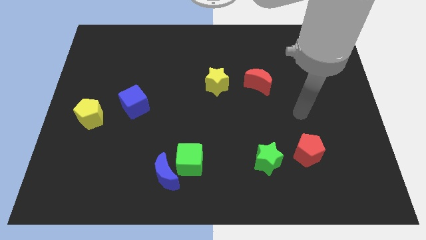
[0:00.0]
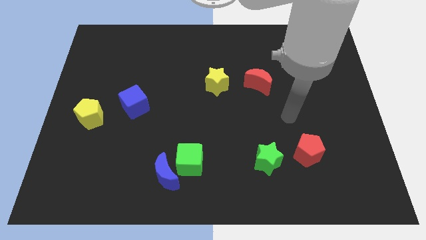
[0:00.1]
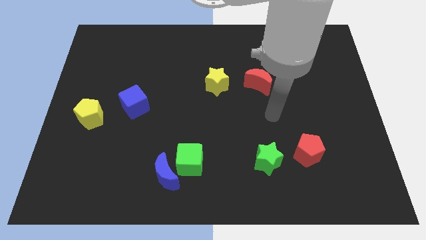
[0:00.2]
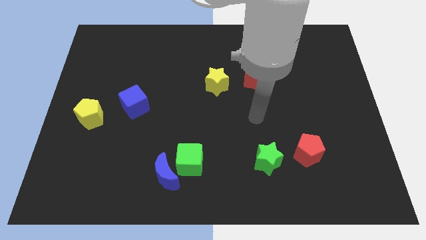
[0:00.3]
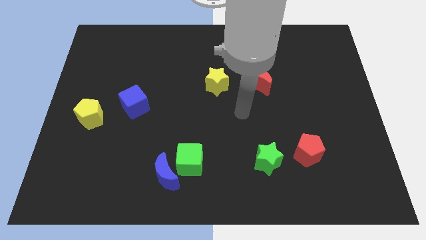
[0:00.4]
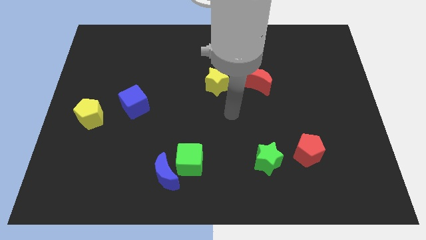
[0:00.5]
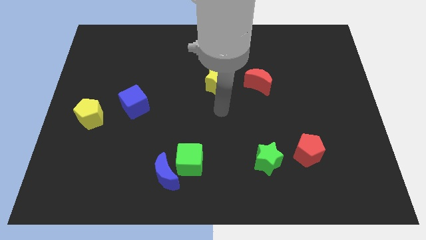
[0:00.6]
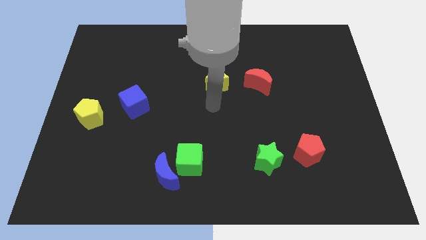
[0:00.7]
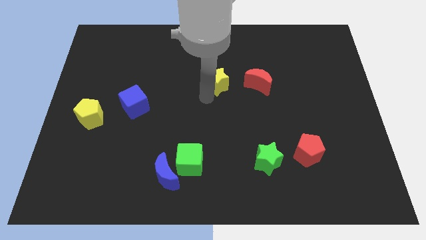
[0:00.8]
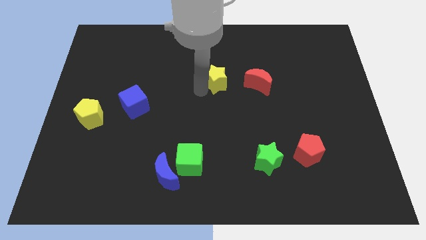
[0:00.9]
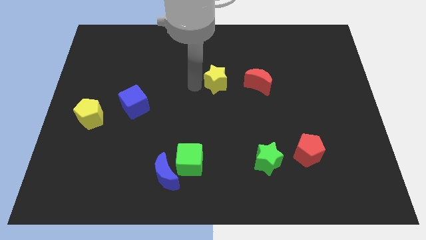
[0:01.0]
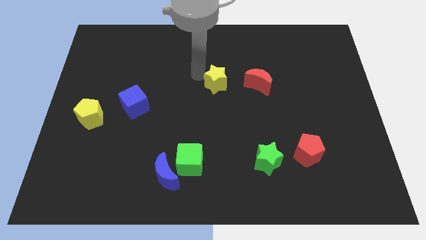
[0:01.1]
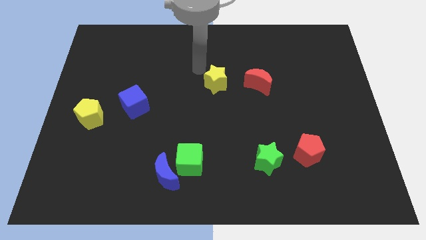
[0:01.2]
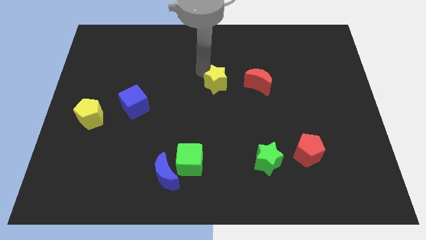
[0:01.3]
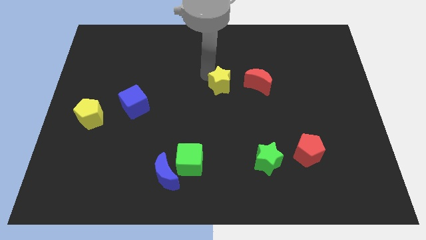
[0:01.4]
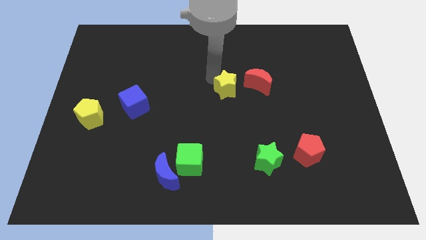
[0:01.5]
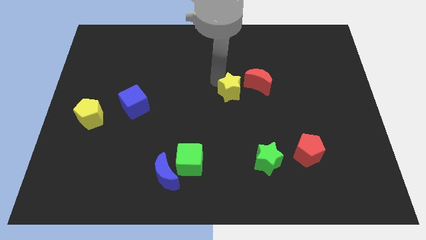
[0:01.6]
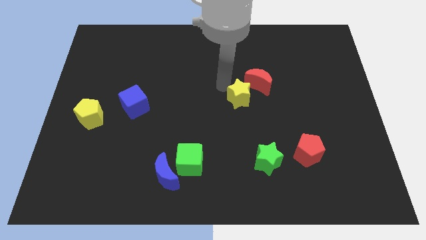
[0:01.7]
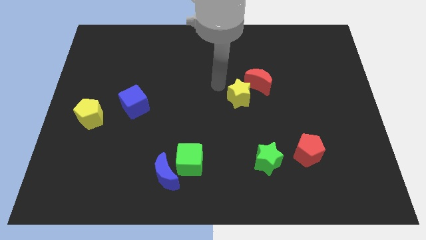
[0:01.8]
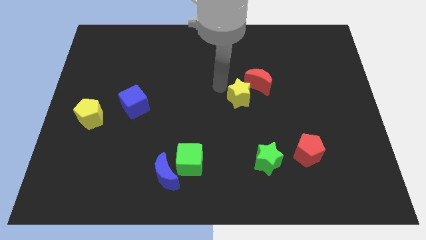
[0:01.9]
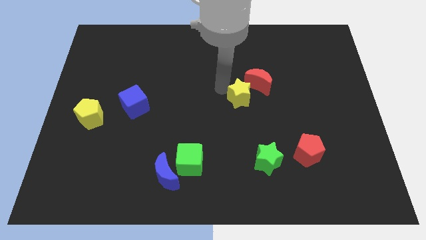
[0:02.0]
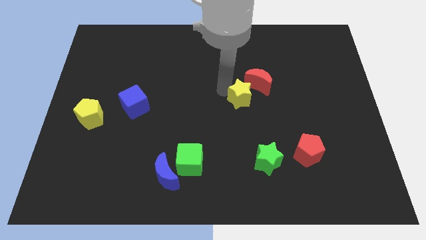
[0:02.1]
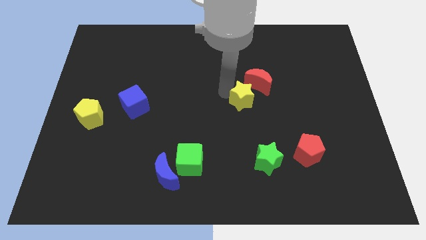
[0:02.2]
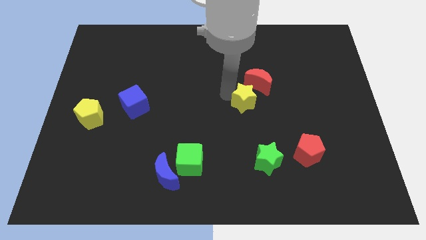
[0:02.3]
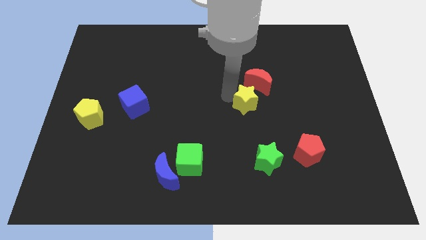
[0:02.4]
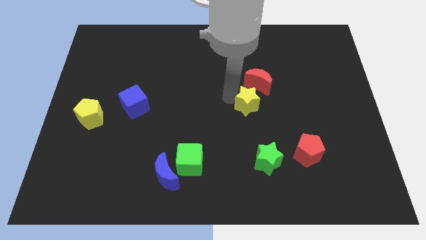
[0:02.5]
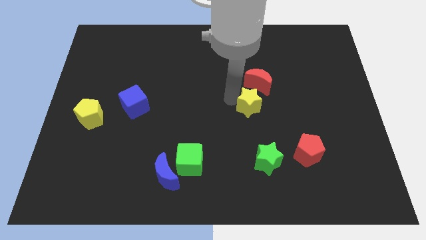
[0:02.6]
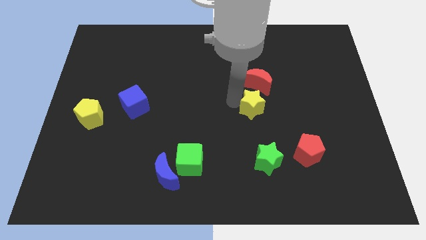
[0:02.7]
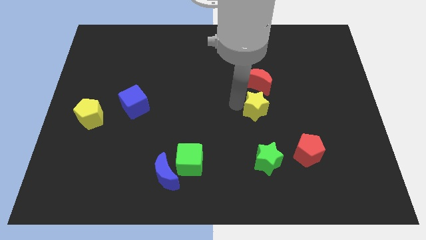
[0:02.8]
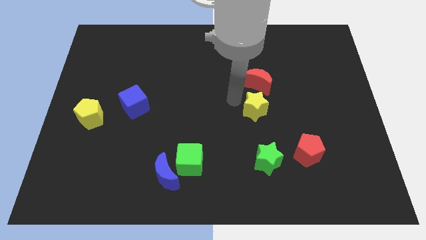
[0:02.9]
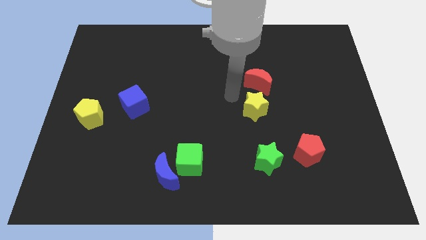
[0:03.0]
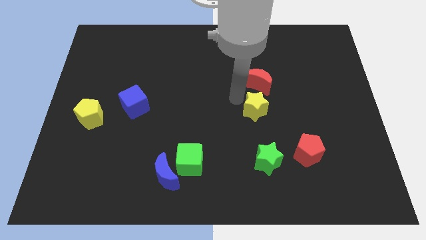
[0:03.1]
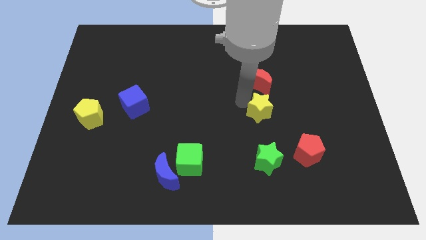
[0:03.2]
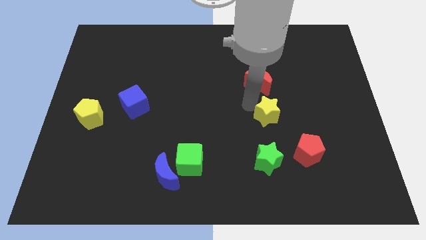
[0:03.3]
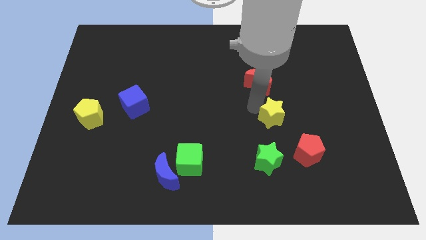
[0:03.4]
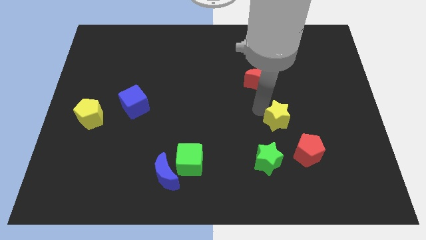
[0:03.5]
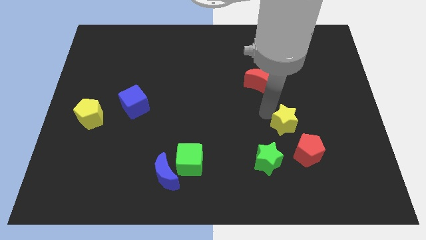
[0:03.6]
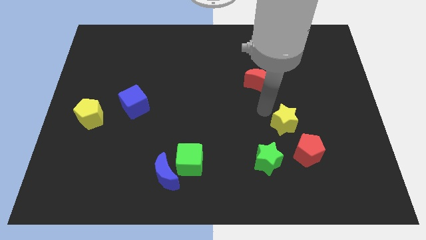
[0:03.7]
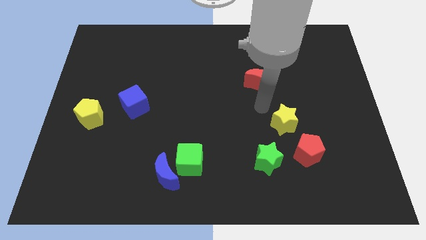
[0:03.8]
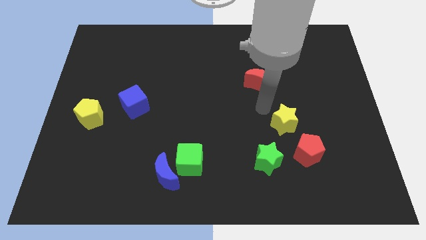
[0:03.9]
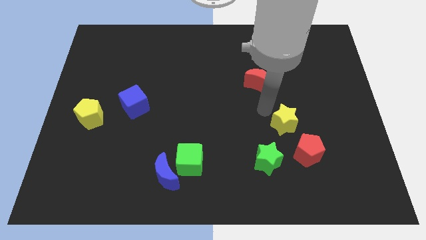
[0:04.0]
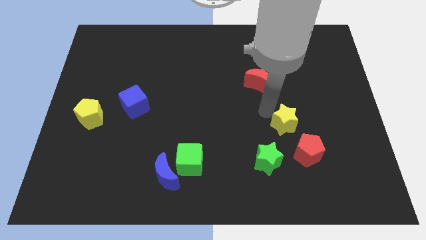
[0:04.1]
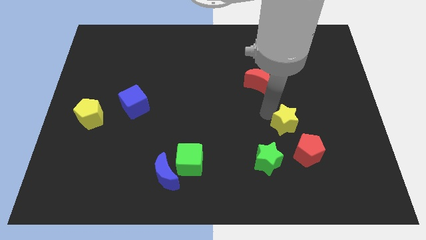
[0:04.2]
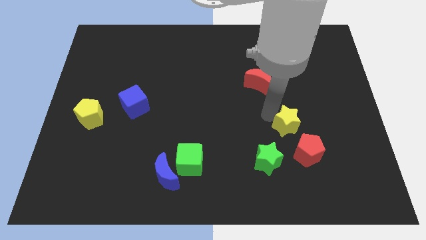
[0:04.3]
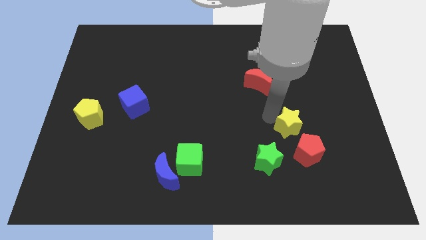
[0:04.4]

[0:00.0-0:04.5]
slide the yellow star diagonally downwards and to the right

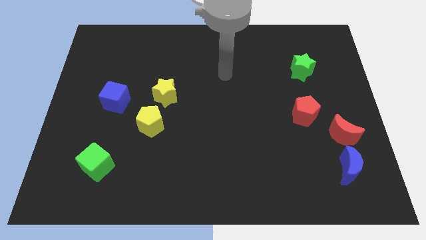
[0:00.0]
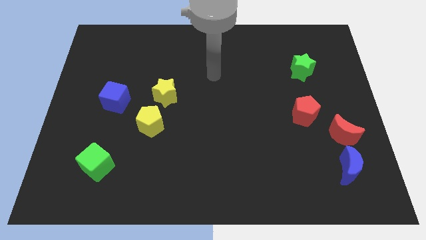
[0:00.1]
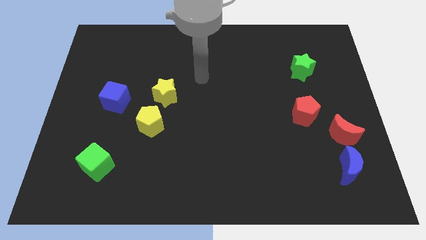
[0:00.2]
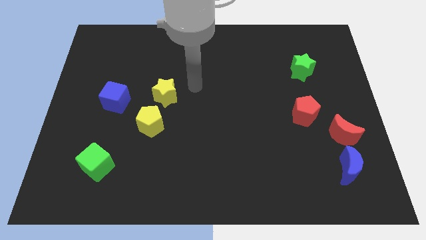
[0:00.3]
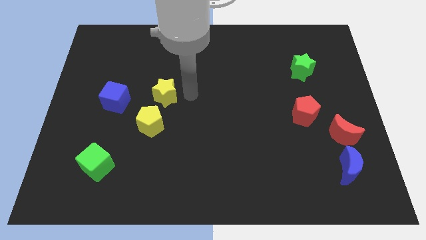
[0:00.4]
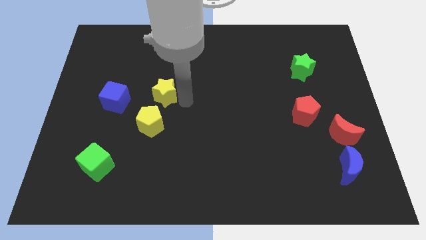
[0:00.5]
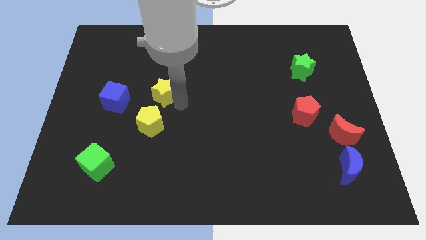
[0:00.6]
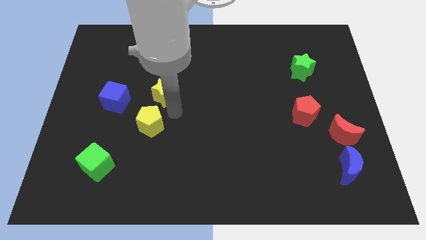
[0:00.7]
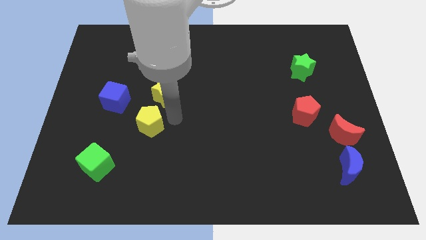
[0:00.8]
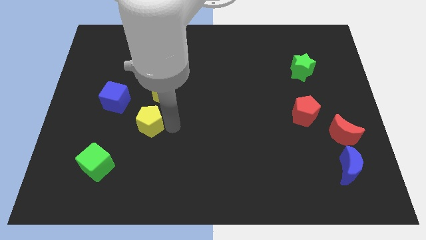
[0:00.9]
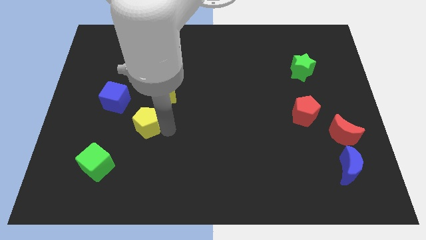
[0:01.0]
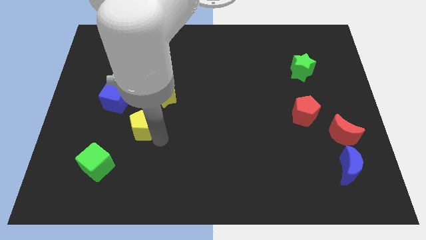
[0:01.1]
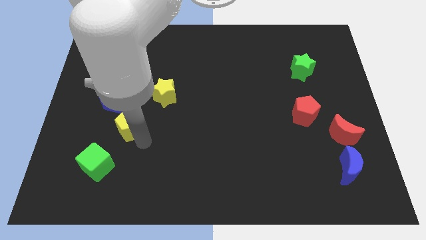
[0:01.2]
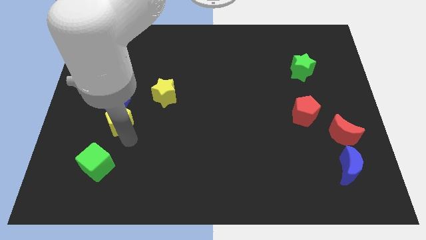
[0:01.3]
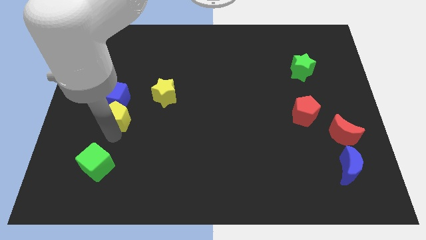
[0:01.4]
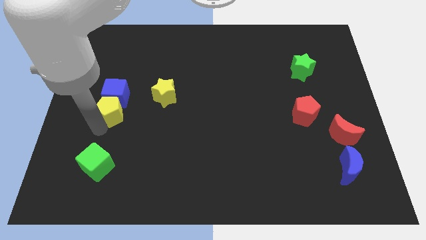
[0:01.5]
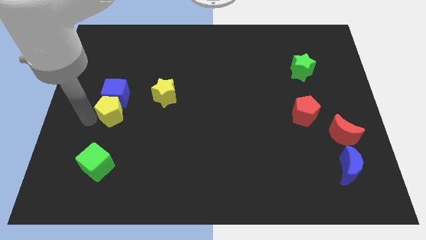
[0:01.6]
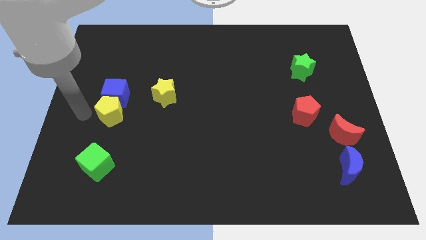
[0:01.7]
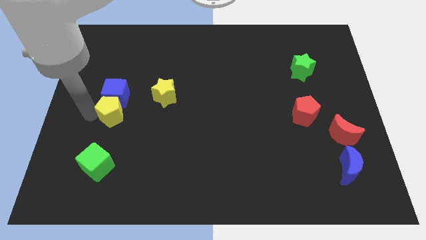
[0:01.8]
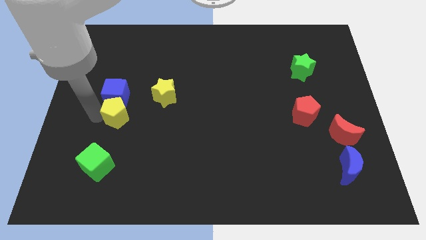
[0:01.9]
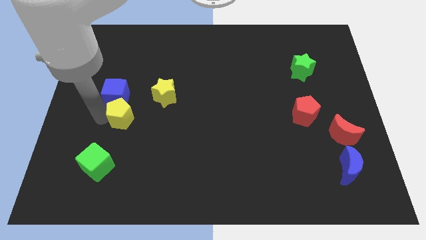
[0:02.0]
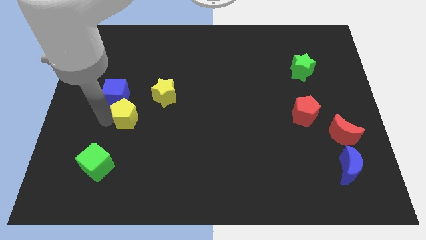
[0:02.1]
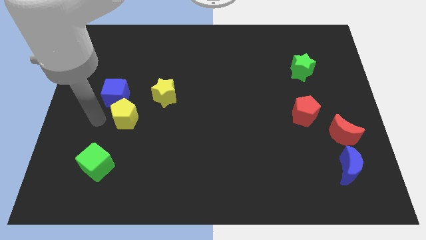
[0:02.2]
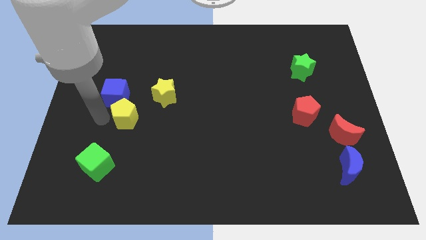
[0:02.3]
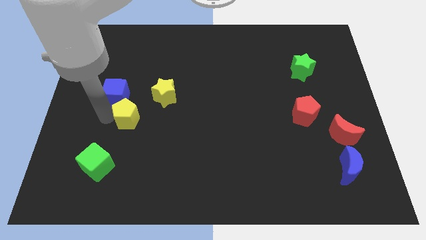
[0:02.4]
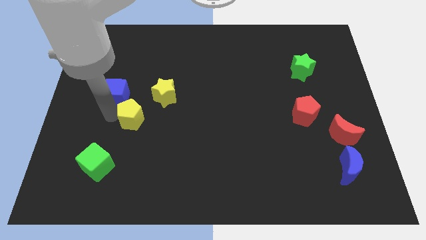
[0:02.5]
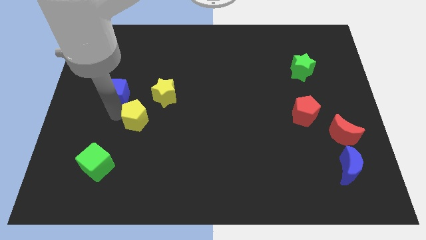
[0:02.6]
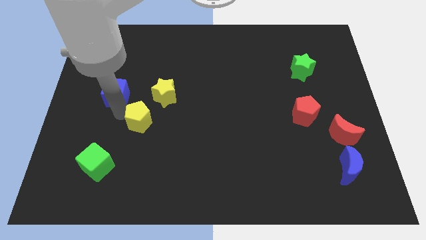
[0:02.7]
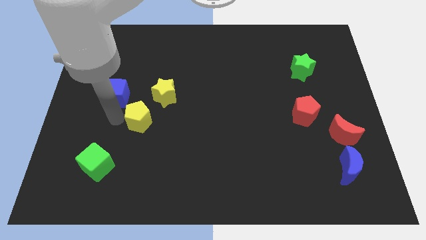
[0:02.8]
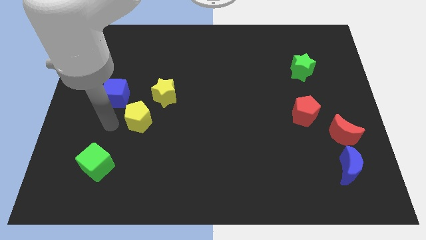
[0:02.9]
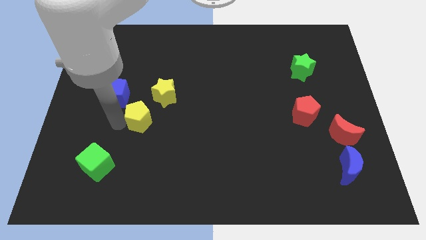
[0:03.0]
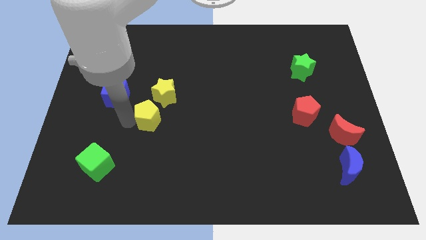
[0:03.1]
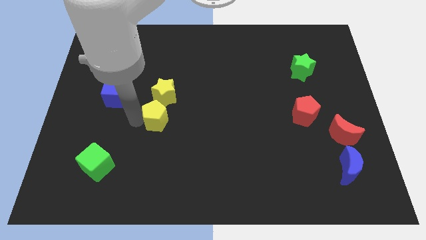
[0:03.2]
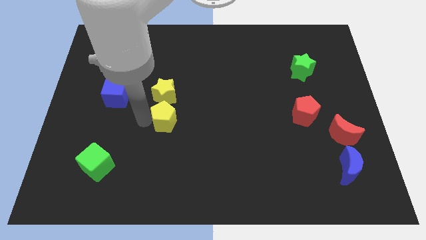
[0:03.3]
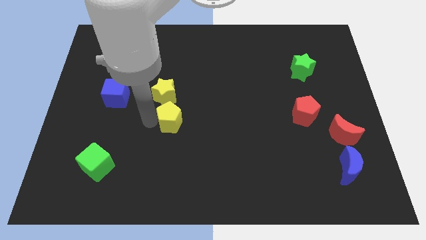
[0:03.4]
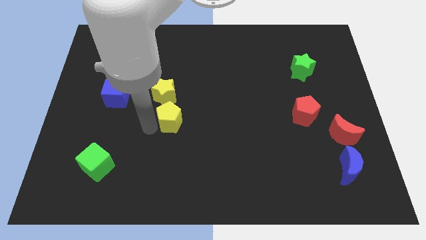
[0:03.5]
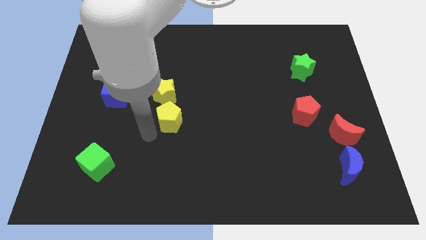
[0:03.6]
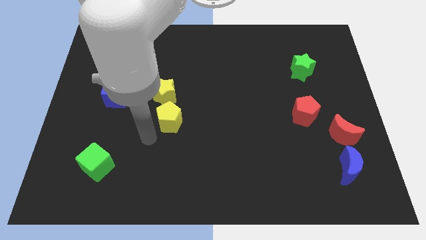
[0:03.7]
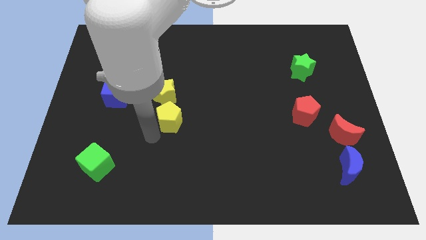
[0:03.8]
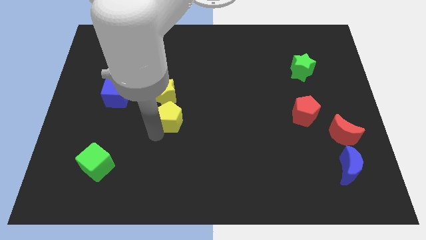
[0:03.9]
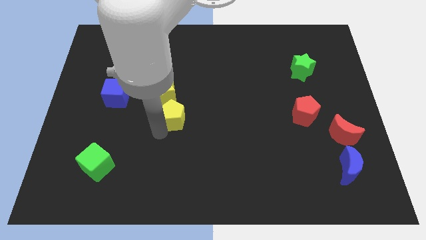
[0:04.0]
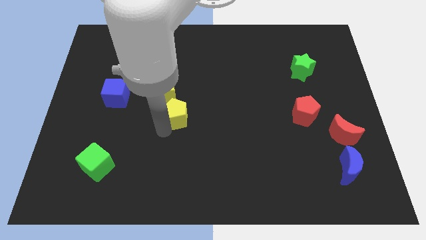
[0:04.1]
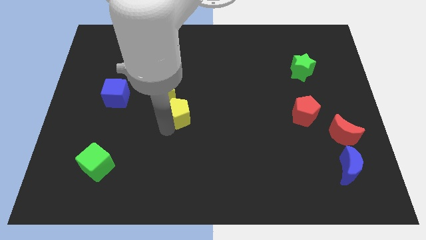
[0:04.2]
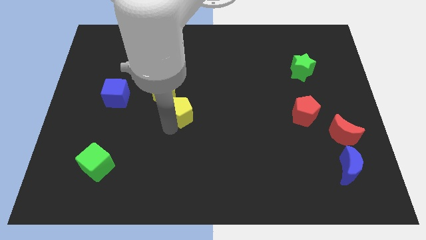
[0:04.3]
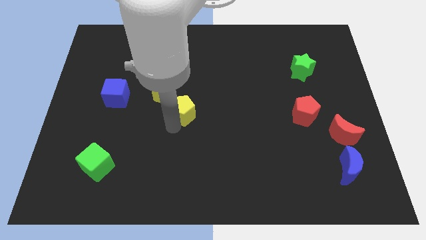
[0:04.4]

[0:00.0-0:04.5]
push the yellow pentagon slightly up and right diagonally
